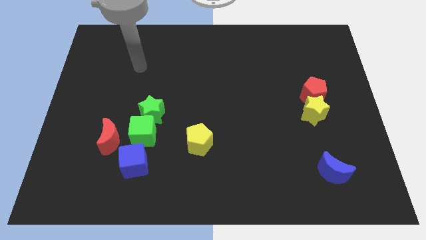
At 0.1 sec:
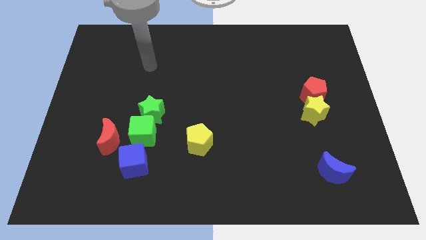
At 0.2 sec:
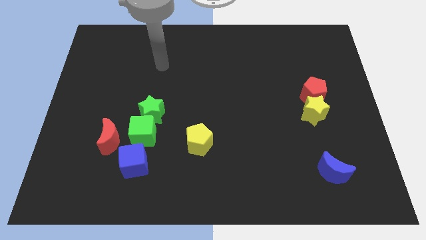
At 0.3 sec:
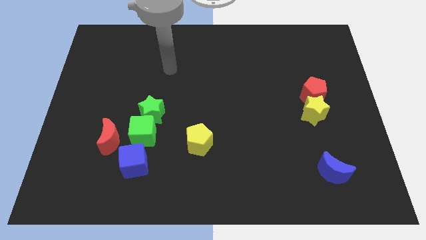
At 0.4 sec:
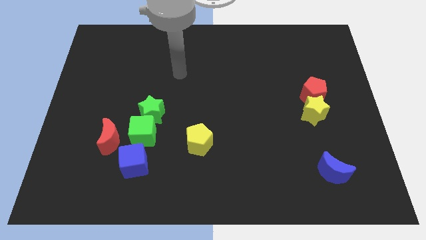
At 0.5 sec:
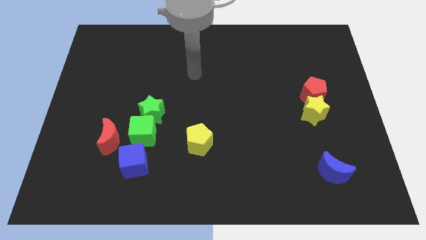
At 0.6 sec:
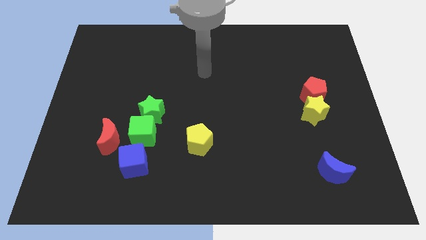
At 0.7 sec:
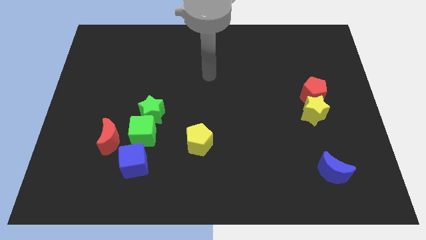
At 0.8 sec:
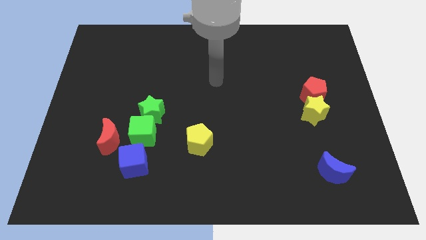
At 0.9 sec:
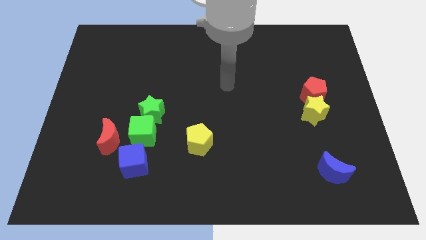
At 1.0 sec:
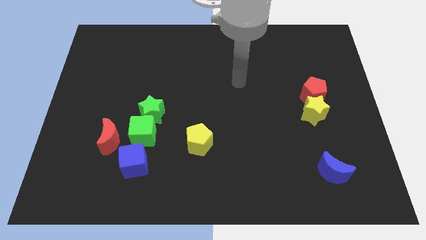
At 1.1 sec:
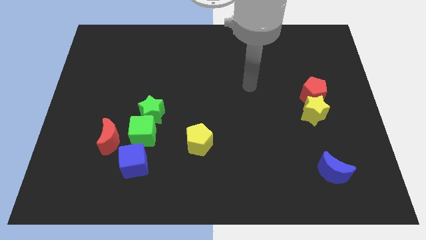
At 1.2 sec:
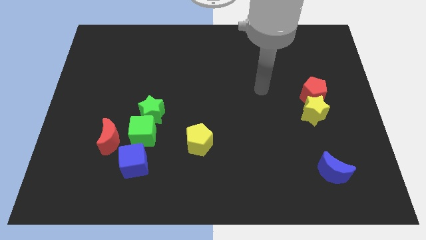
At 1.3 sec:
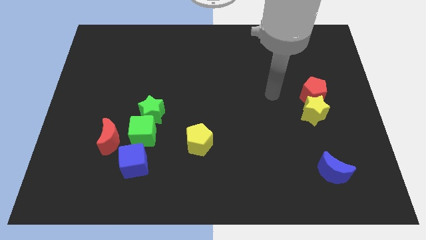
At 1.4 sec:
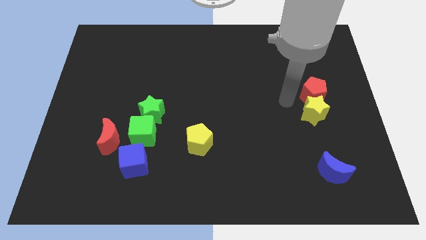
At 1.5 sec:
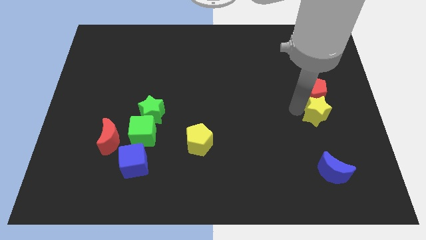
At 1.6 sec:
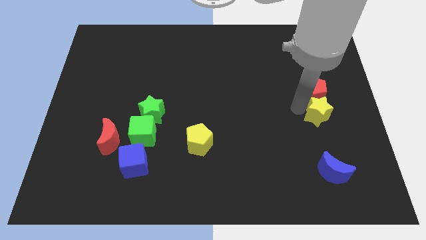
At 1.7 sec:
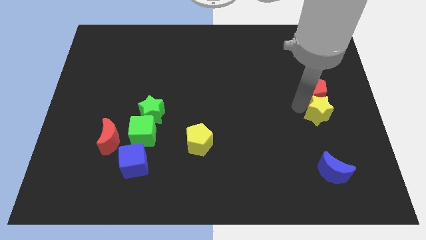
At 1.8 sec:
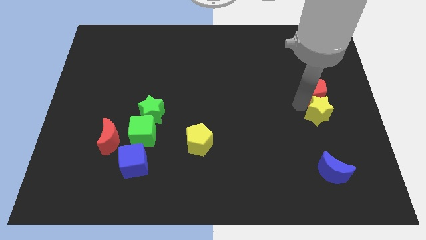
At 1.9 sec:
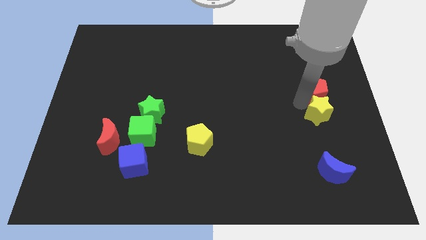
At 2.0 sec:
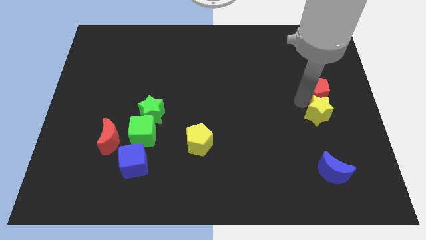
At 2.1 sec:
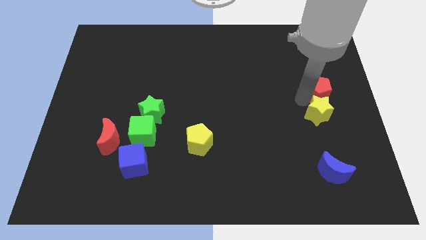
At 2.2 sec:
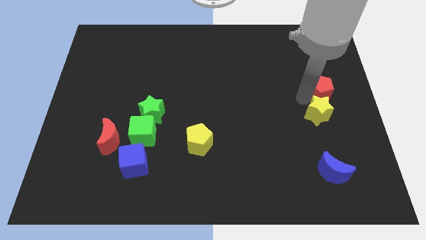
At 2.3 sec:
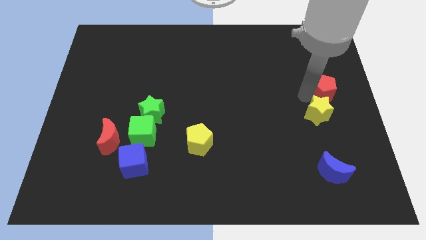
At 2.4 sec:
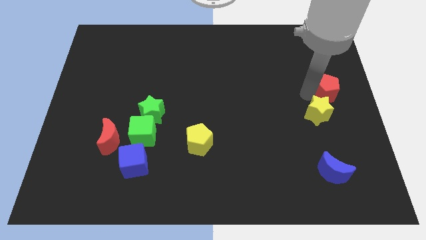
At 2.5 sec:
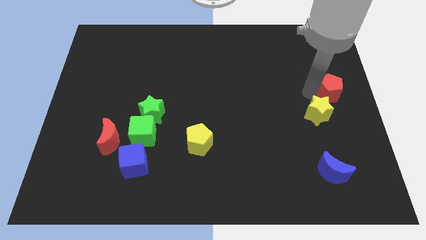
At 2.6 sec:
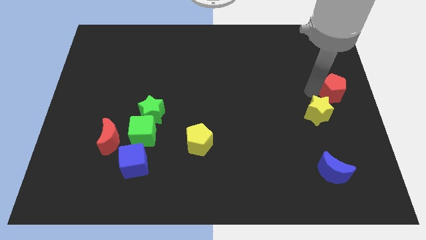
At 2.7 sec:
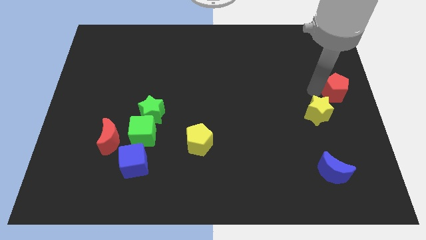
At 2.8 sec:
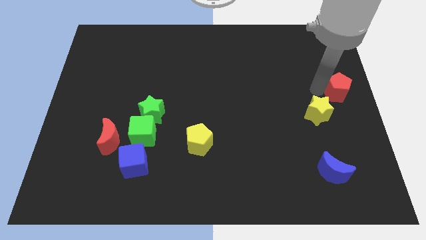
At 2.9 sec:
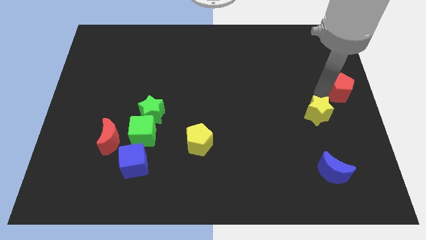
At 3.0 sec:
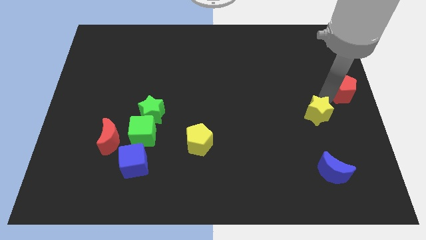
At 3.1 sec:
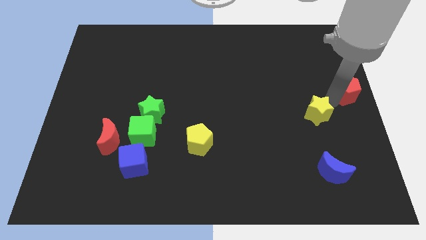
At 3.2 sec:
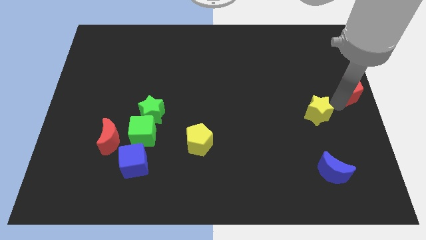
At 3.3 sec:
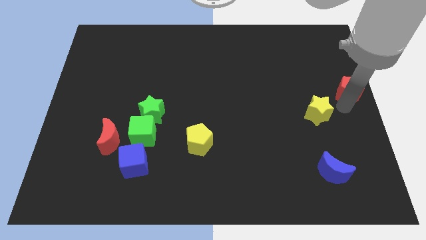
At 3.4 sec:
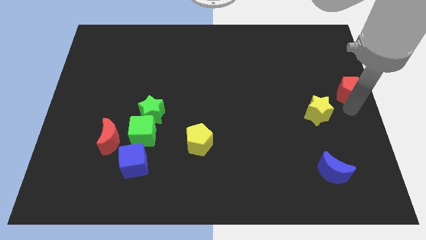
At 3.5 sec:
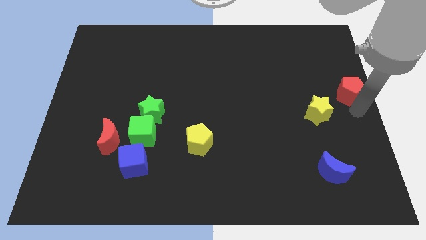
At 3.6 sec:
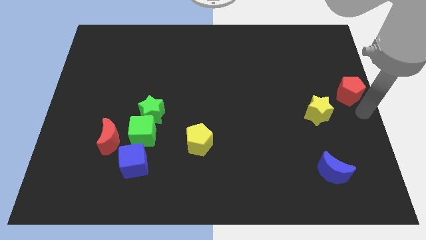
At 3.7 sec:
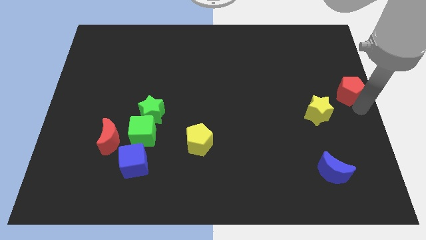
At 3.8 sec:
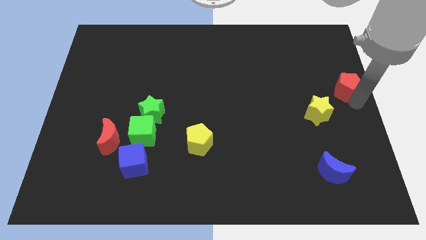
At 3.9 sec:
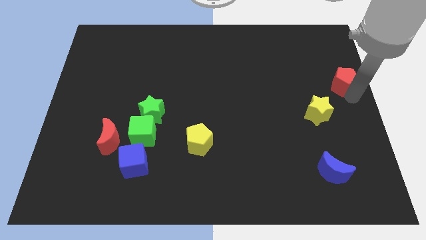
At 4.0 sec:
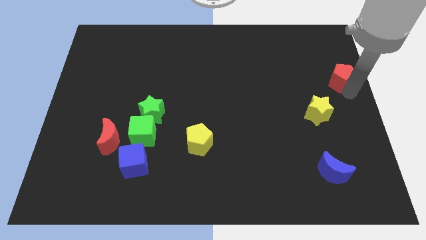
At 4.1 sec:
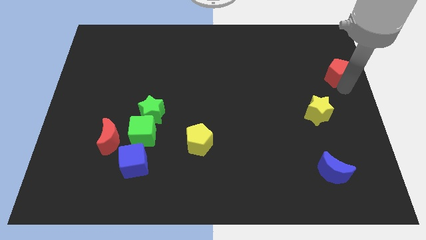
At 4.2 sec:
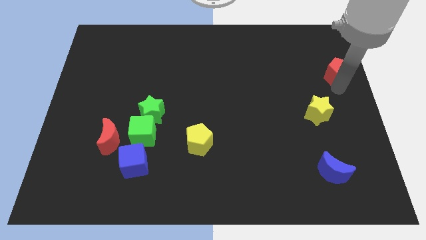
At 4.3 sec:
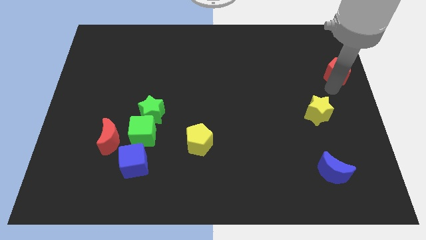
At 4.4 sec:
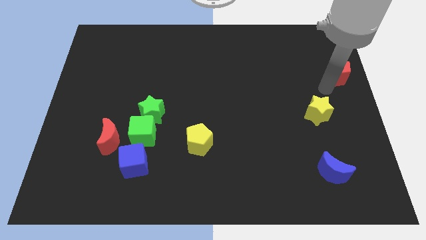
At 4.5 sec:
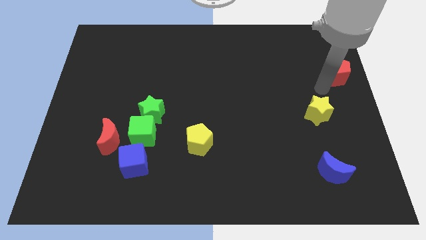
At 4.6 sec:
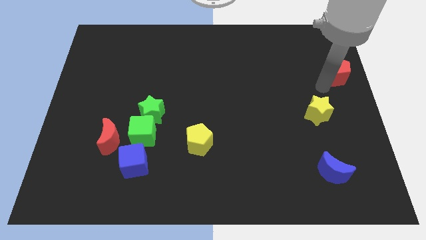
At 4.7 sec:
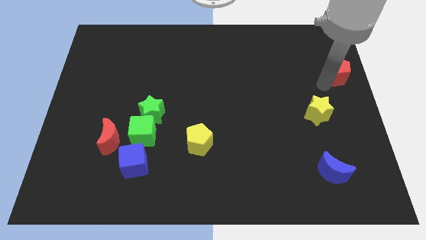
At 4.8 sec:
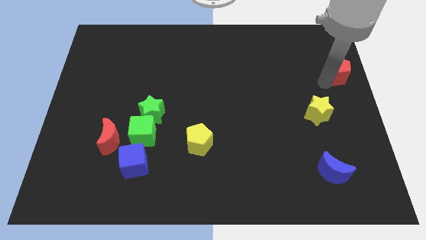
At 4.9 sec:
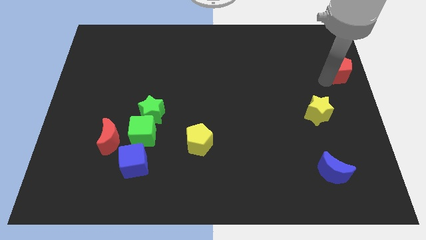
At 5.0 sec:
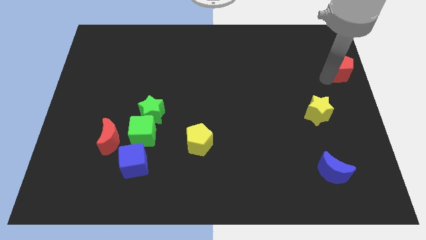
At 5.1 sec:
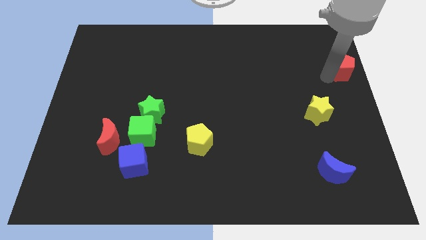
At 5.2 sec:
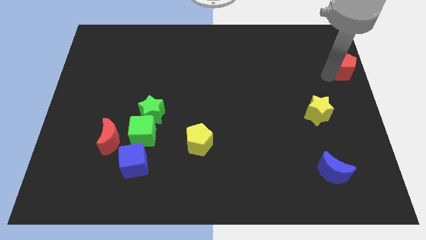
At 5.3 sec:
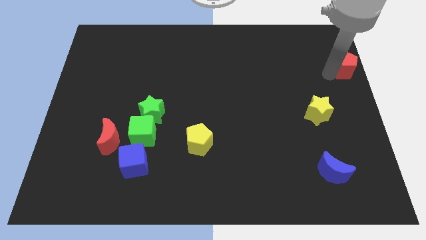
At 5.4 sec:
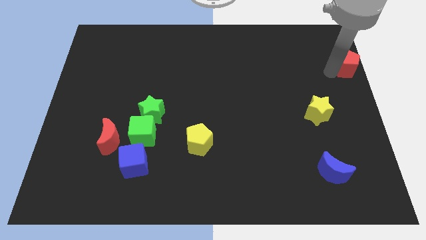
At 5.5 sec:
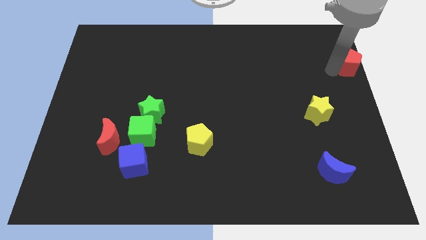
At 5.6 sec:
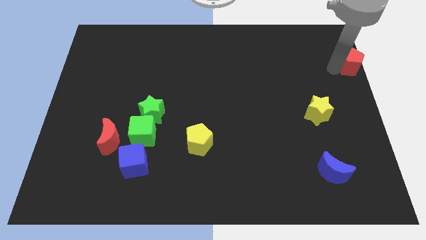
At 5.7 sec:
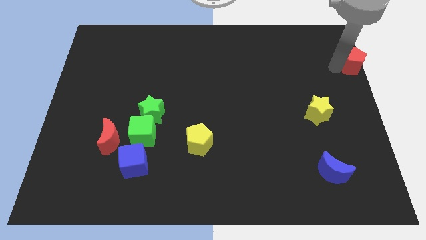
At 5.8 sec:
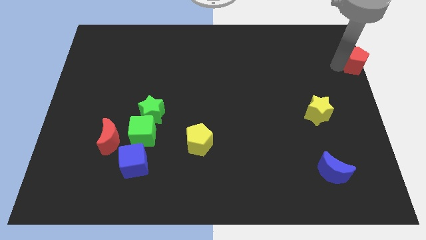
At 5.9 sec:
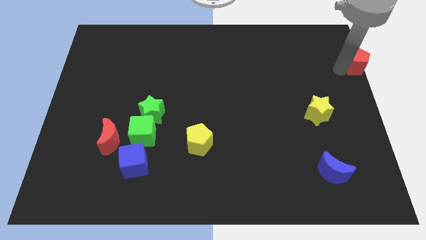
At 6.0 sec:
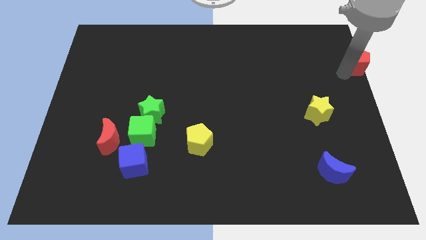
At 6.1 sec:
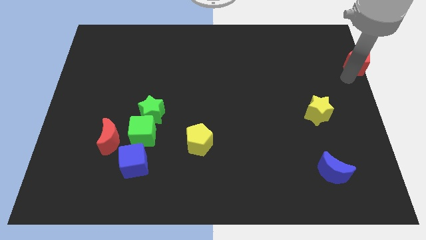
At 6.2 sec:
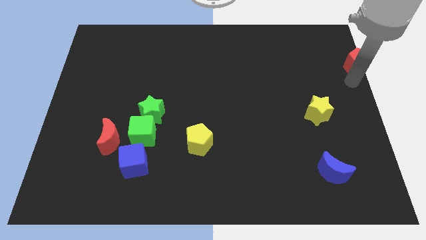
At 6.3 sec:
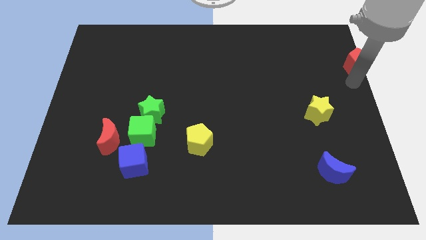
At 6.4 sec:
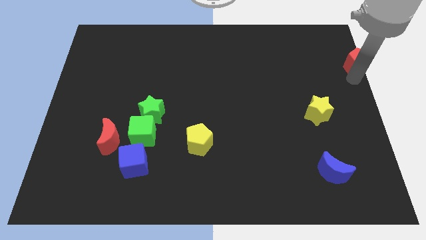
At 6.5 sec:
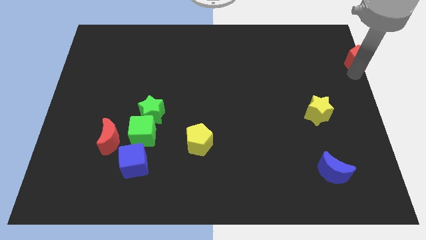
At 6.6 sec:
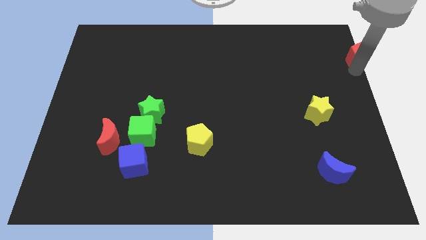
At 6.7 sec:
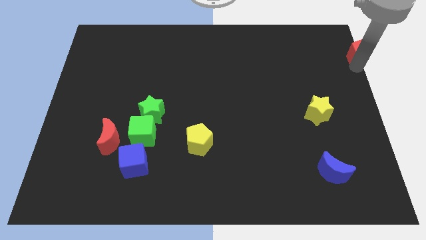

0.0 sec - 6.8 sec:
push the red pentagon to the top right corner

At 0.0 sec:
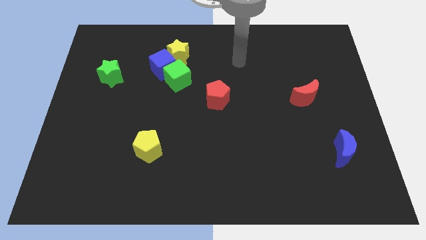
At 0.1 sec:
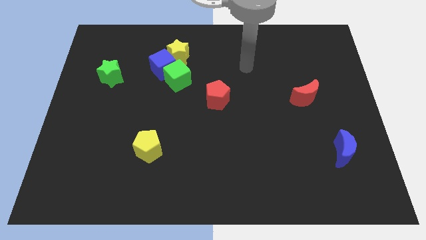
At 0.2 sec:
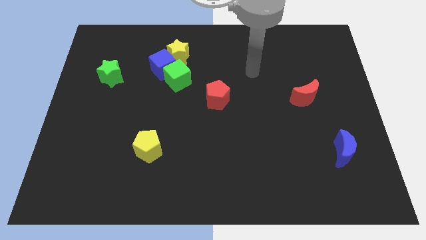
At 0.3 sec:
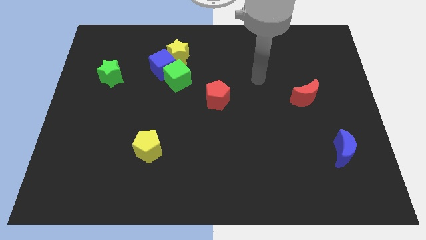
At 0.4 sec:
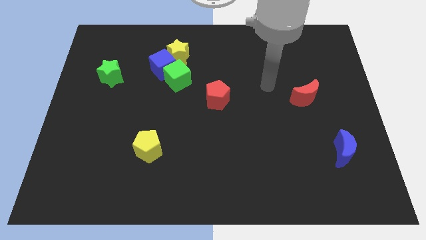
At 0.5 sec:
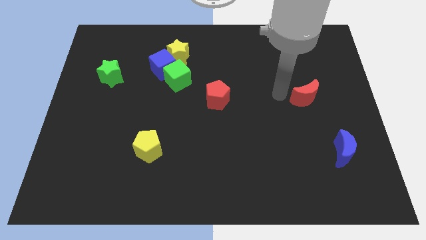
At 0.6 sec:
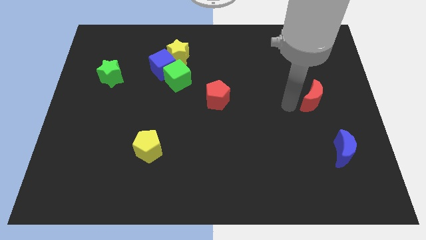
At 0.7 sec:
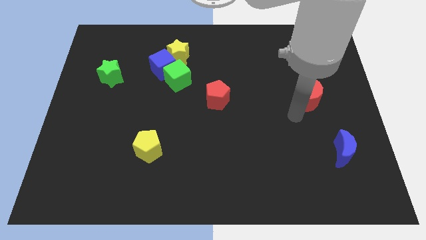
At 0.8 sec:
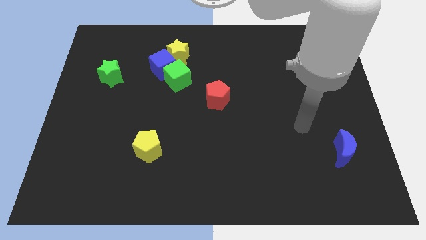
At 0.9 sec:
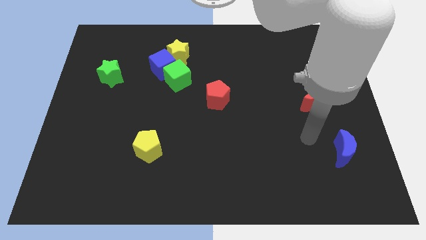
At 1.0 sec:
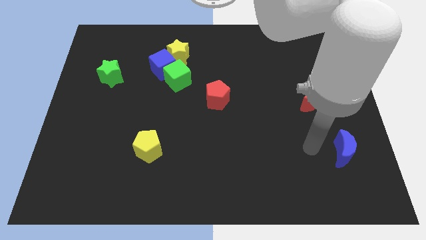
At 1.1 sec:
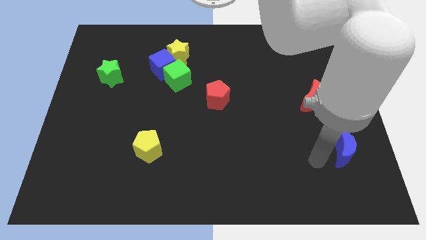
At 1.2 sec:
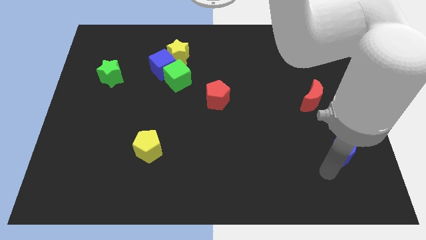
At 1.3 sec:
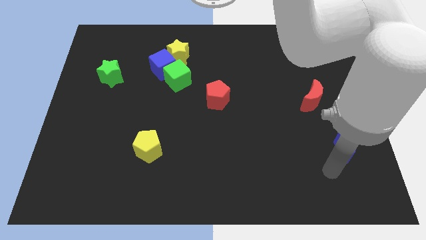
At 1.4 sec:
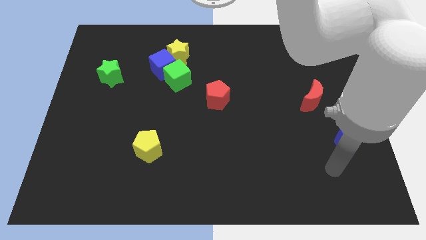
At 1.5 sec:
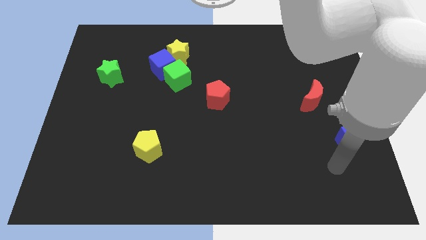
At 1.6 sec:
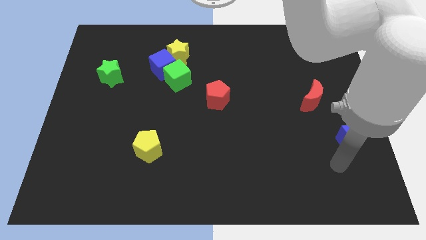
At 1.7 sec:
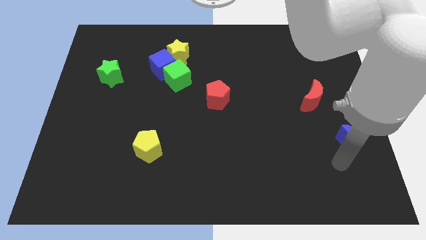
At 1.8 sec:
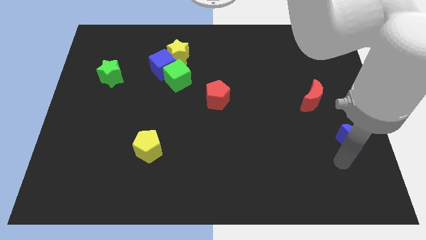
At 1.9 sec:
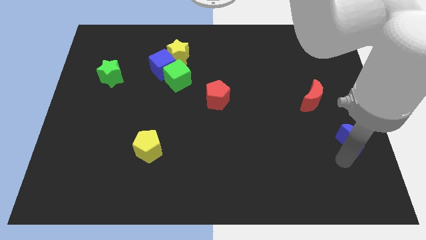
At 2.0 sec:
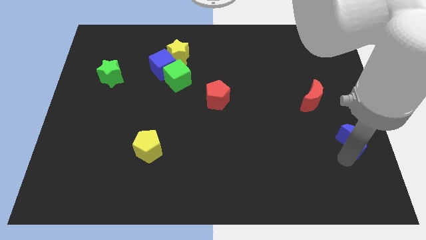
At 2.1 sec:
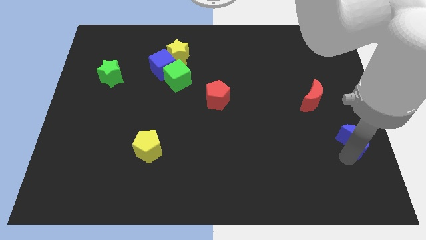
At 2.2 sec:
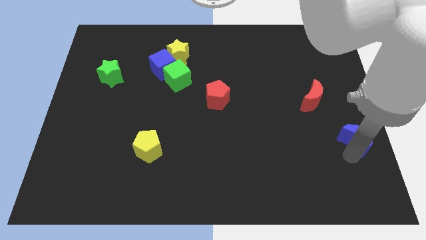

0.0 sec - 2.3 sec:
slide the blue moon to the right side
